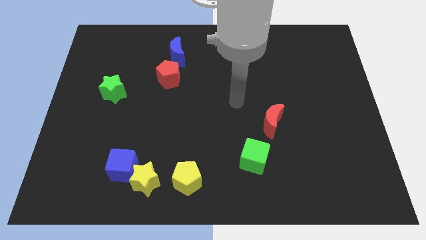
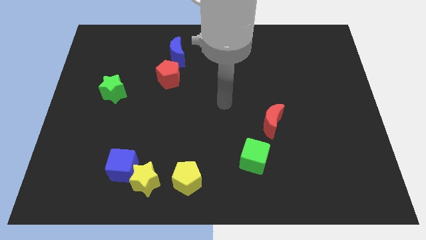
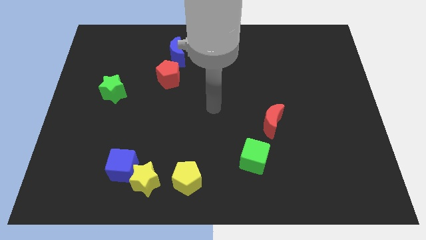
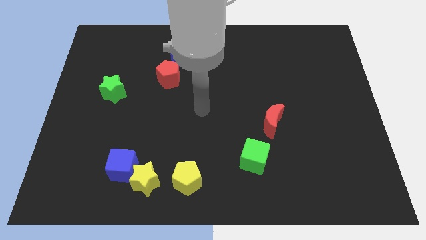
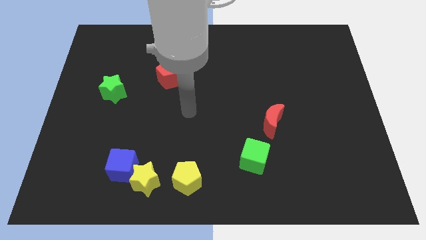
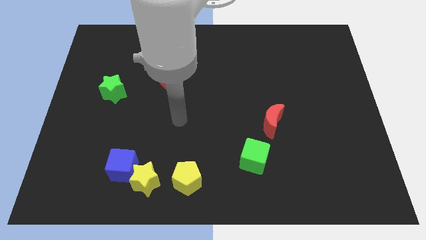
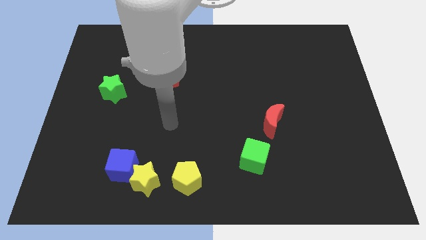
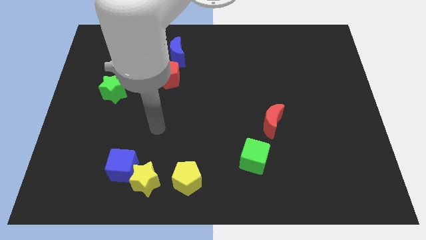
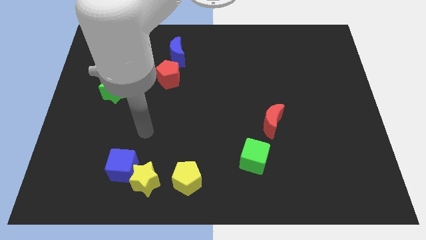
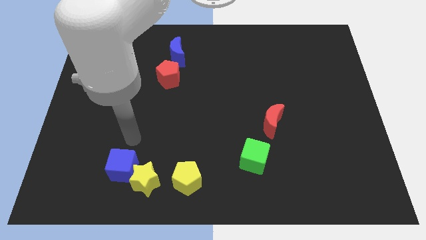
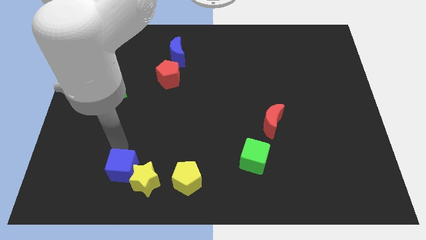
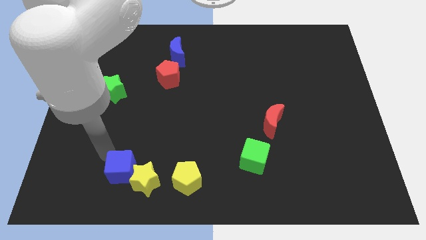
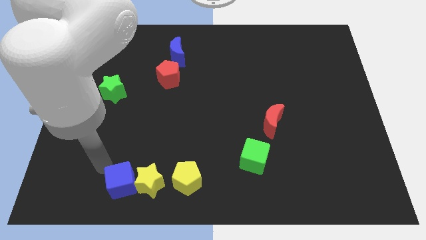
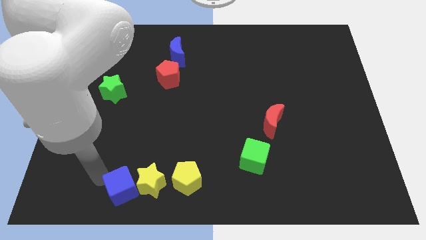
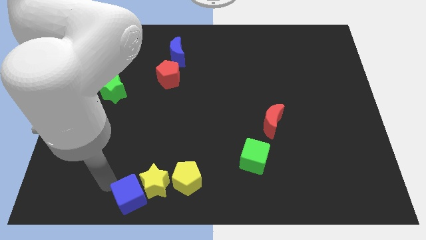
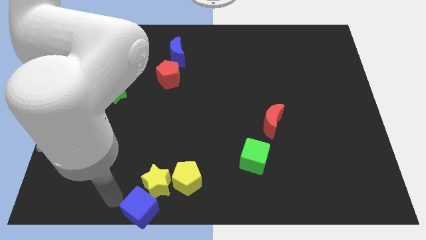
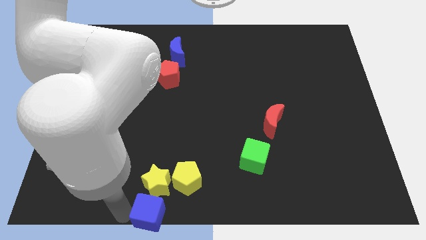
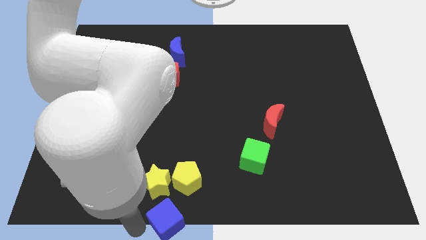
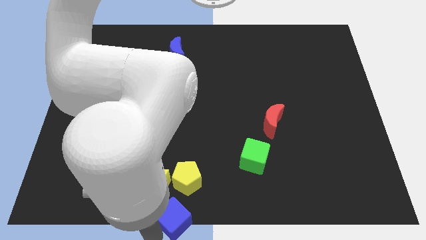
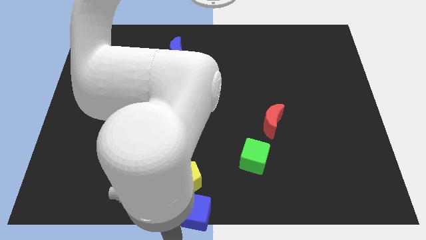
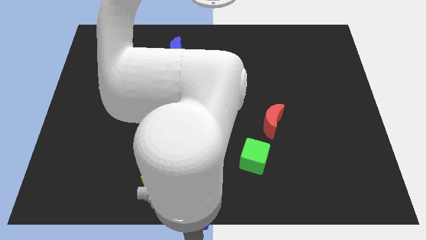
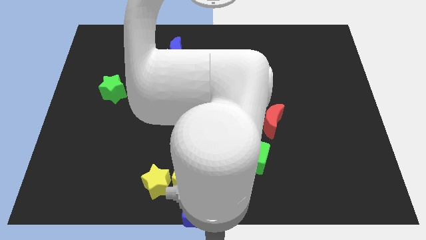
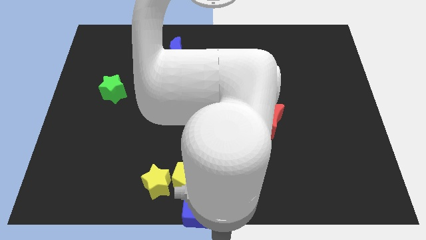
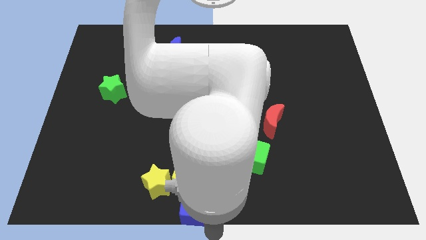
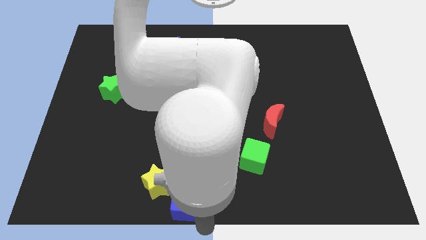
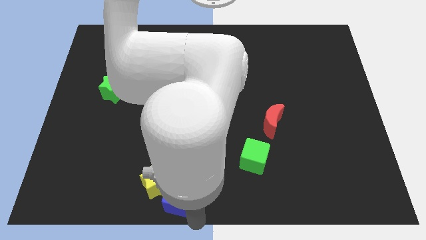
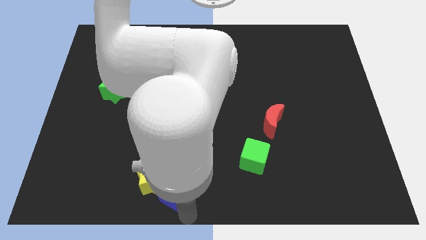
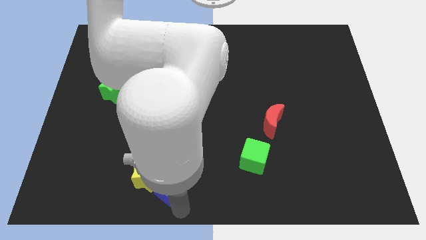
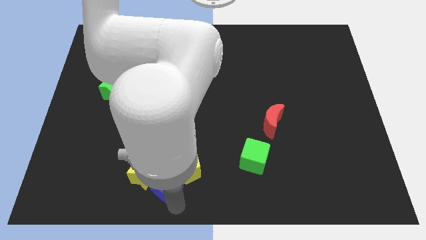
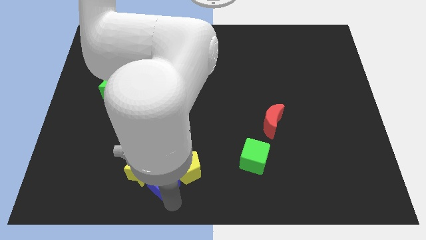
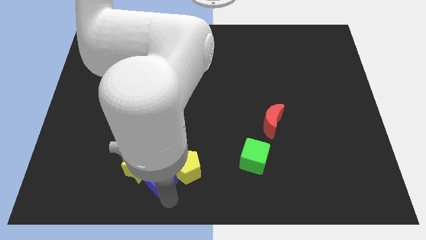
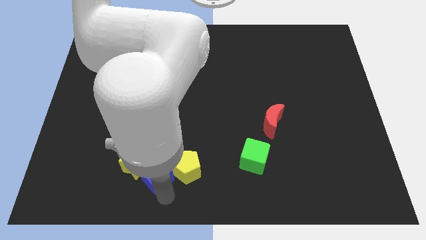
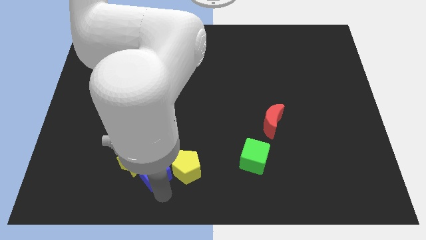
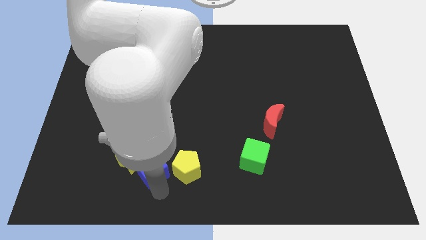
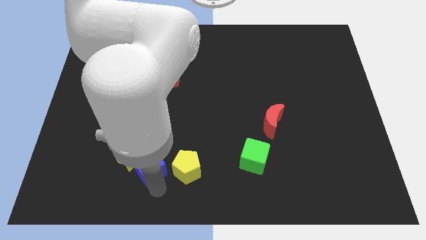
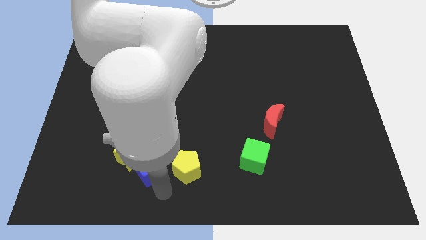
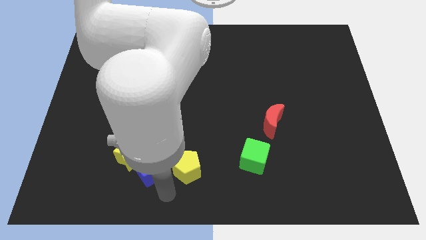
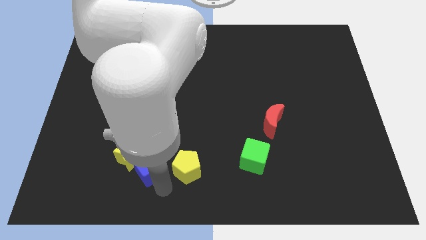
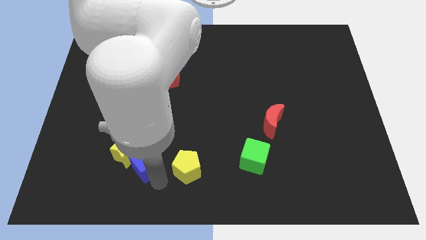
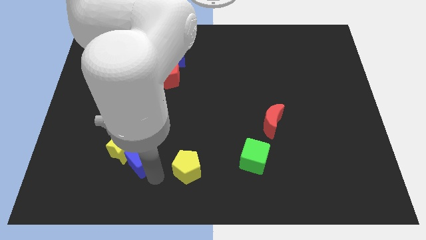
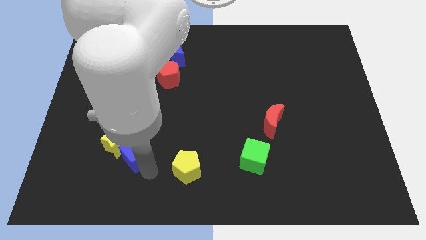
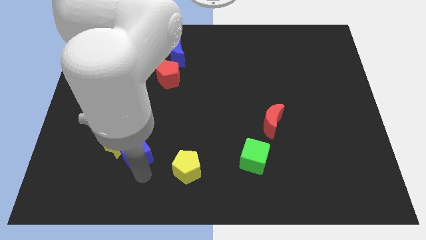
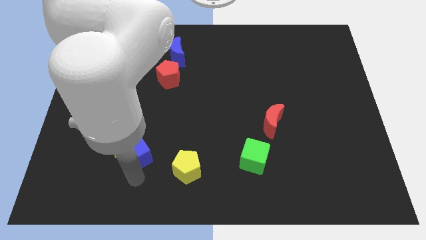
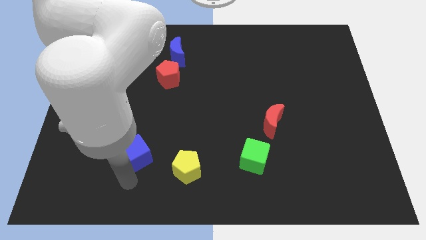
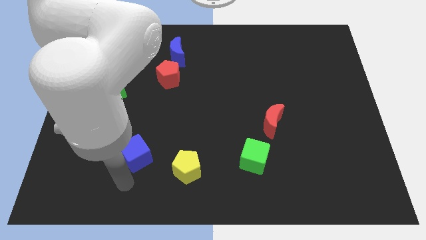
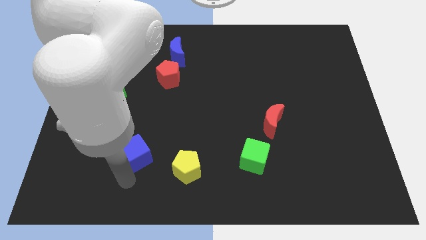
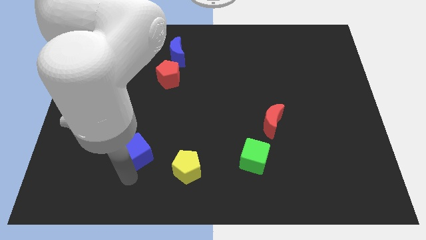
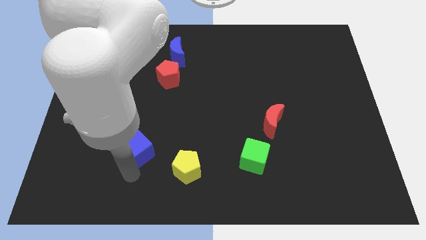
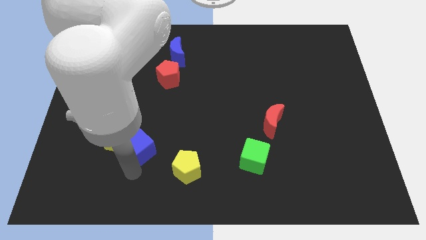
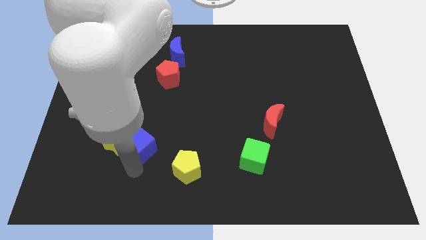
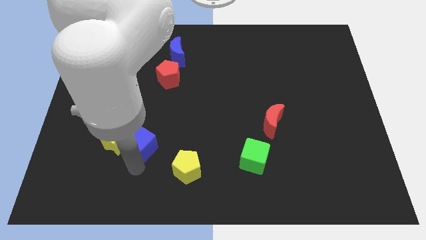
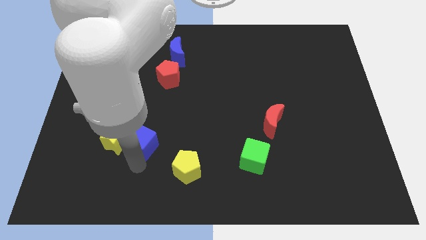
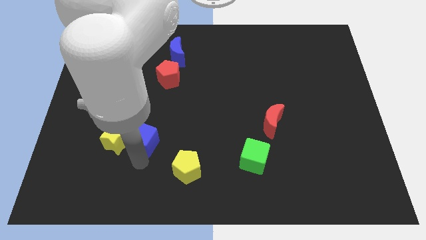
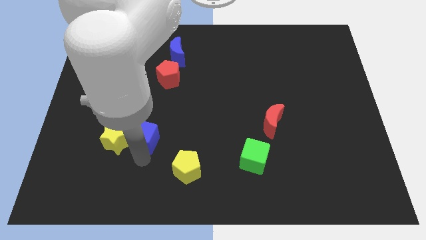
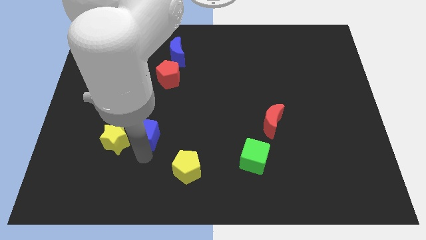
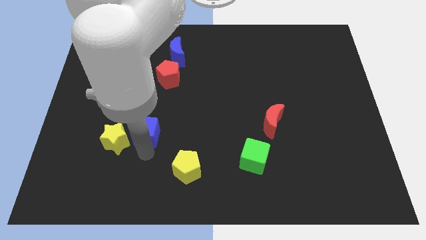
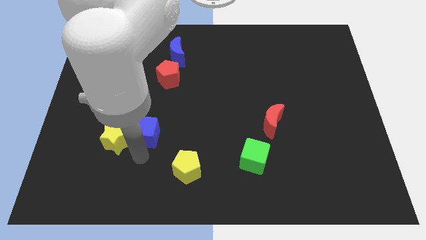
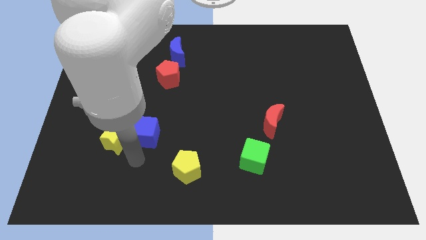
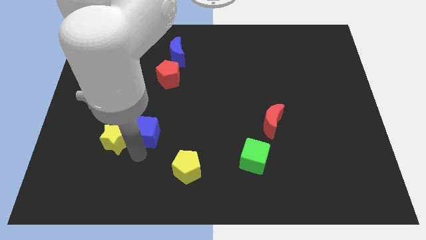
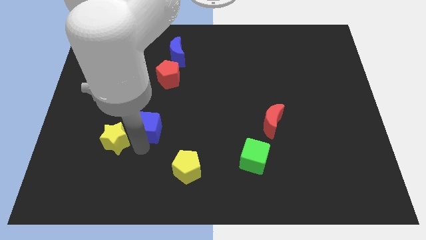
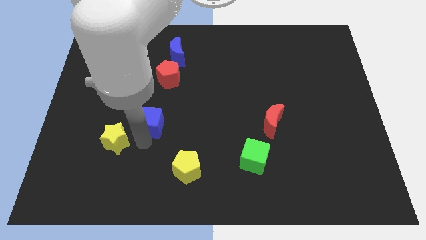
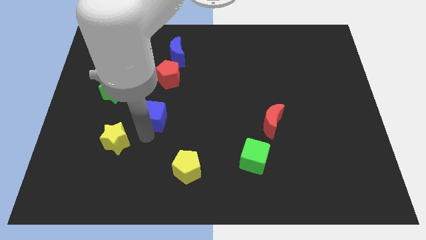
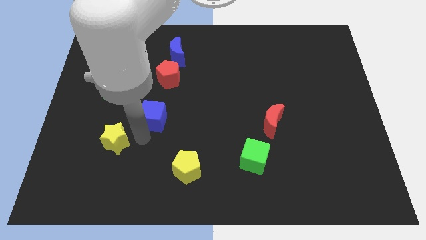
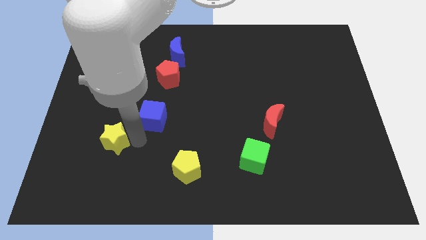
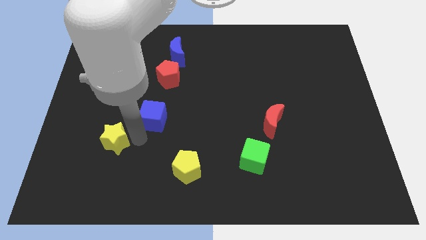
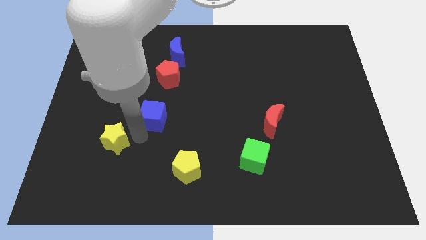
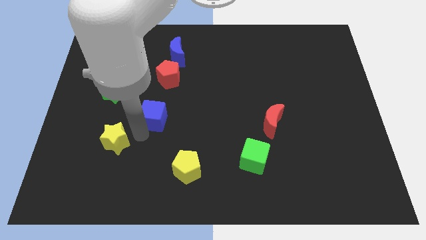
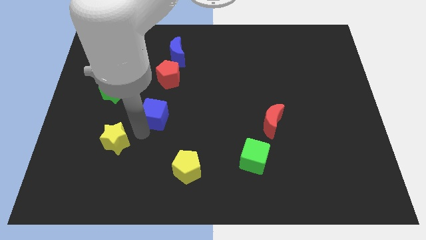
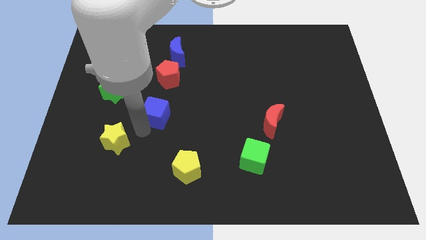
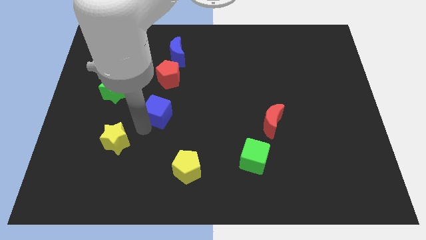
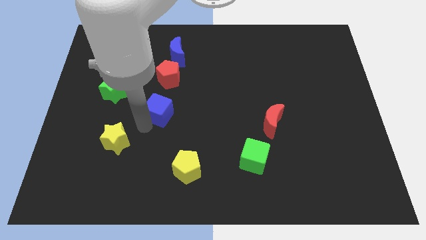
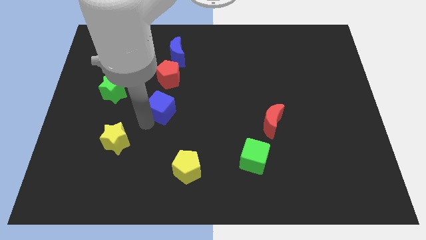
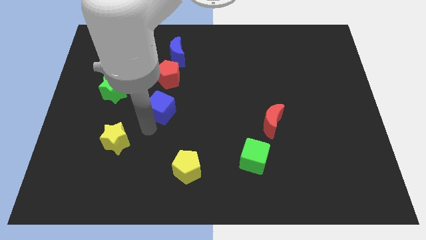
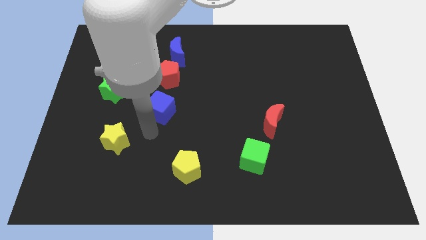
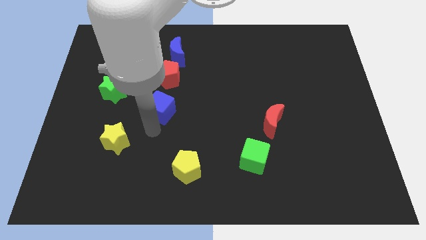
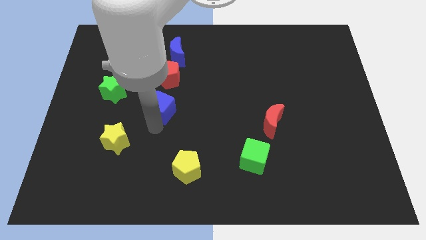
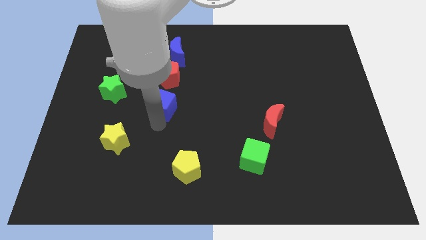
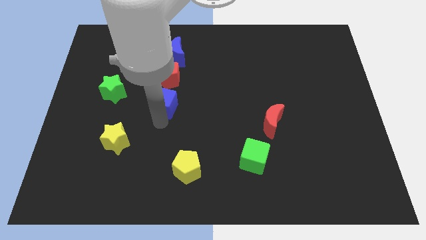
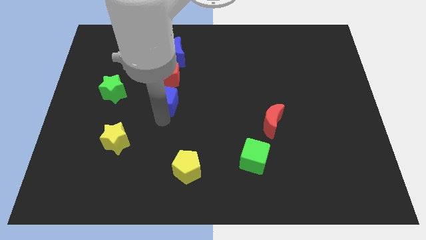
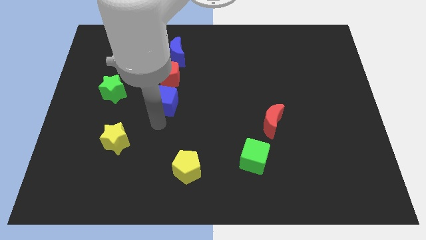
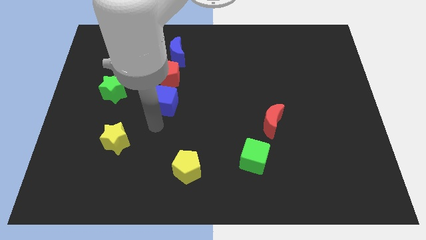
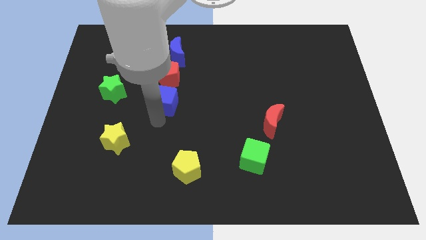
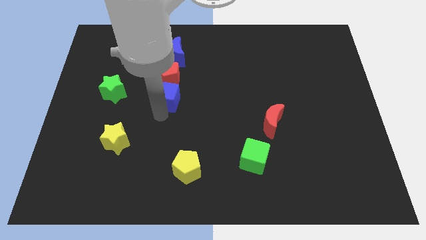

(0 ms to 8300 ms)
slide the blue cube below the blue moon
